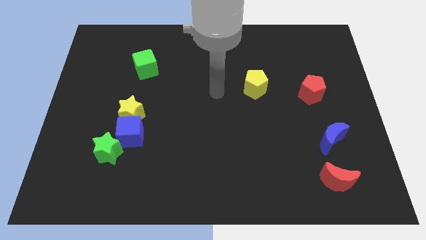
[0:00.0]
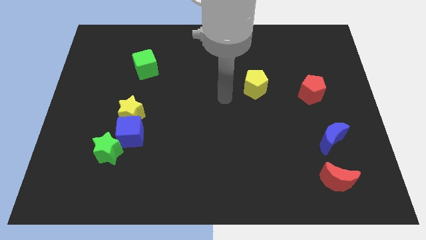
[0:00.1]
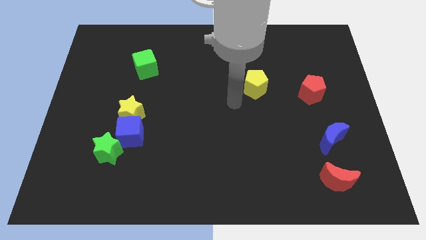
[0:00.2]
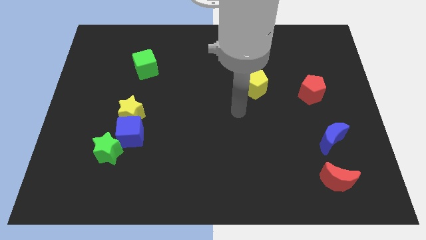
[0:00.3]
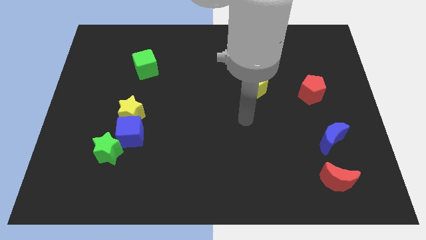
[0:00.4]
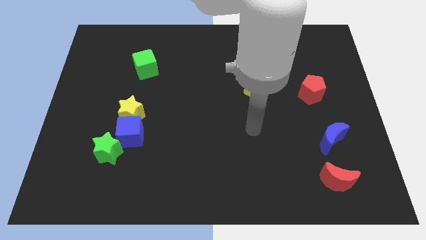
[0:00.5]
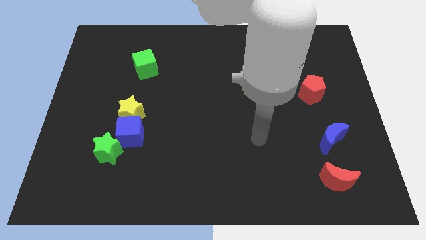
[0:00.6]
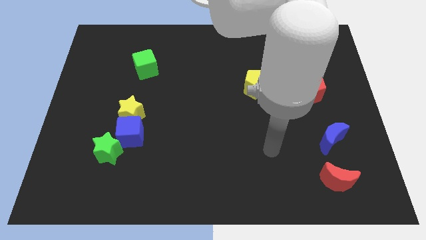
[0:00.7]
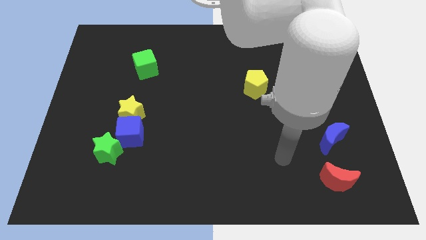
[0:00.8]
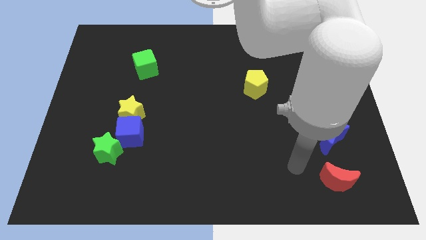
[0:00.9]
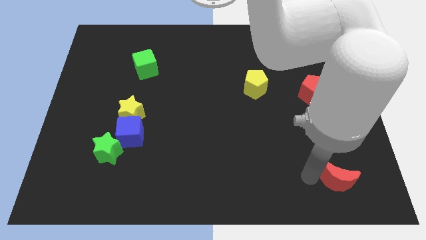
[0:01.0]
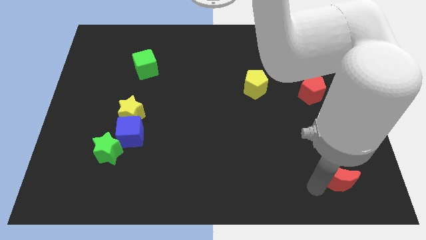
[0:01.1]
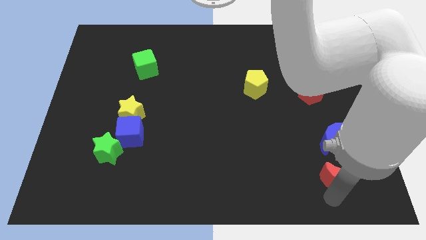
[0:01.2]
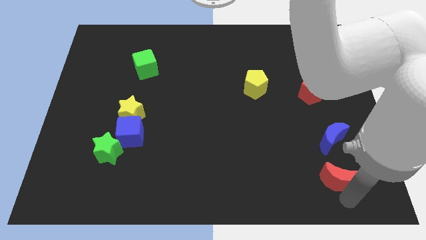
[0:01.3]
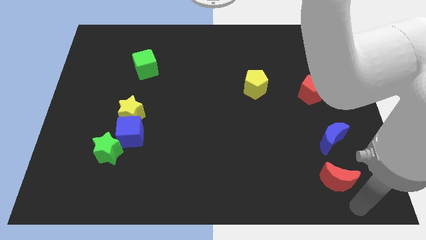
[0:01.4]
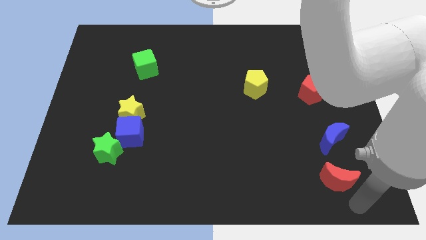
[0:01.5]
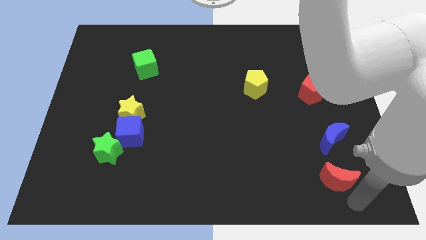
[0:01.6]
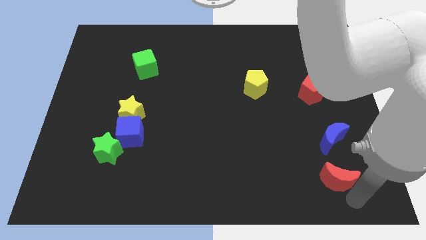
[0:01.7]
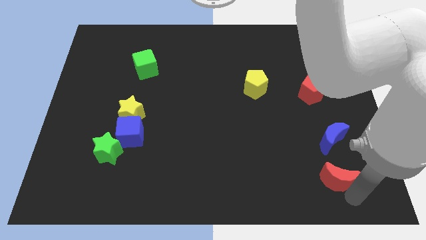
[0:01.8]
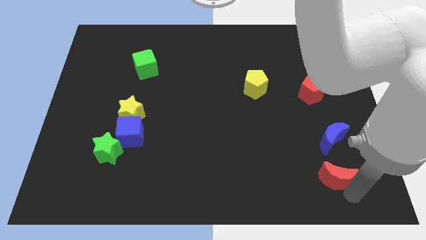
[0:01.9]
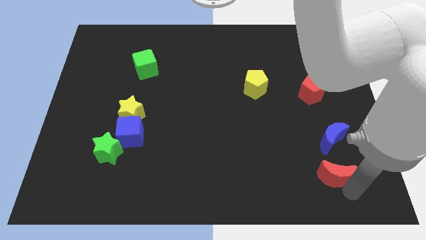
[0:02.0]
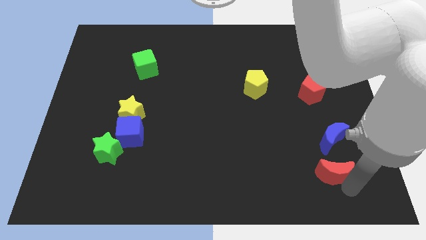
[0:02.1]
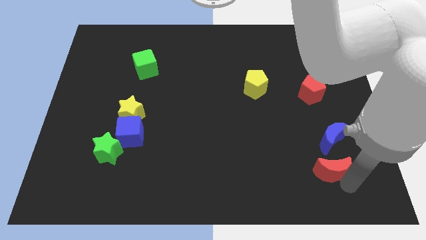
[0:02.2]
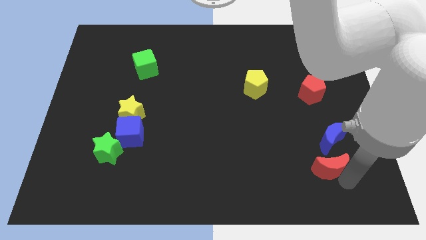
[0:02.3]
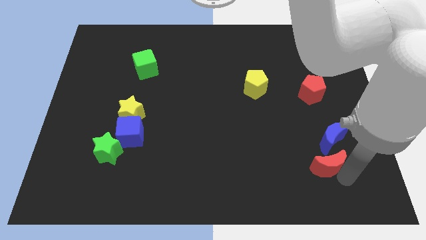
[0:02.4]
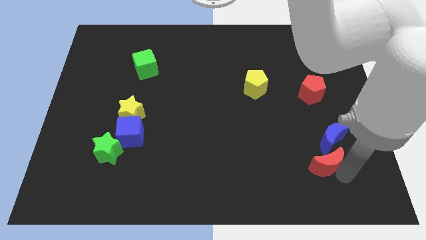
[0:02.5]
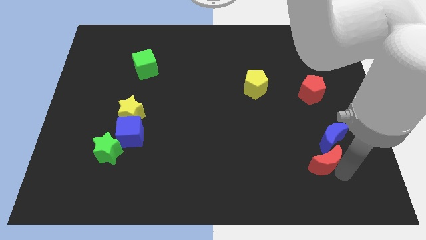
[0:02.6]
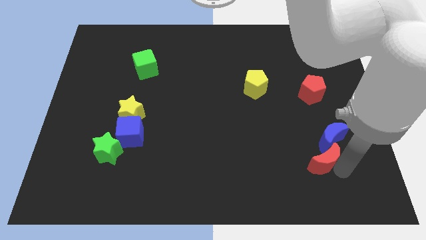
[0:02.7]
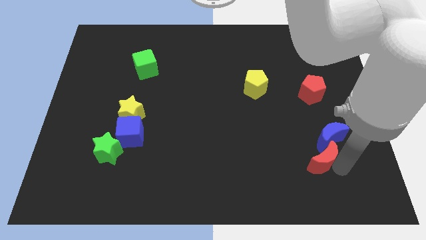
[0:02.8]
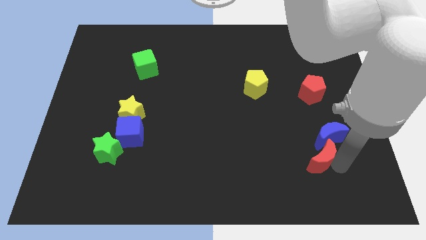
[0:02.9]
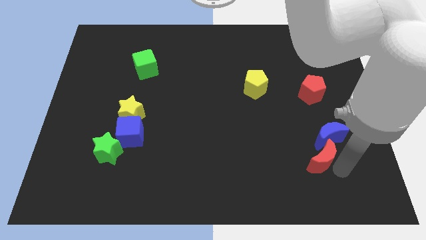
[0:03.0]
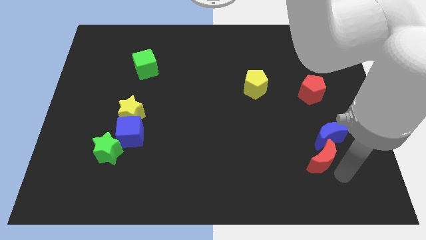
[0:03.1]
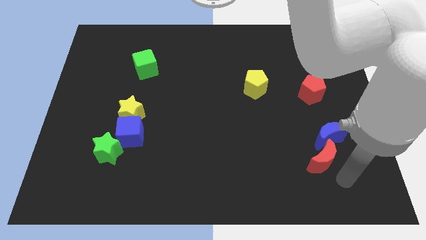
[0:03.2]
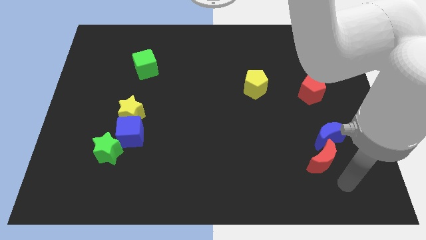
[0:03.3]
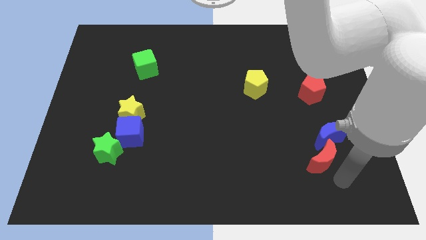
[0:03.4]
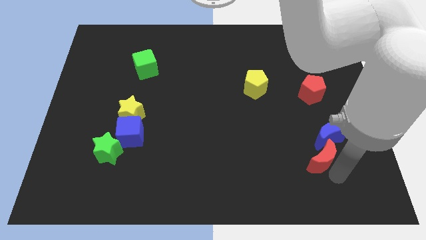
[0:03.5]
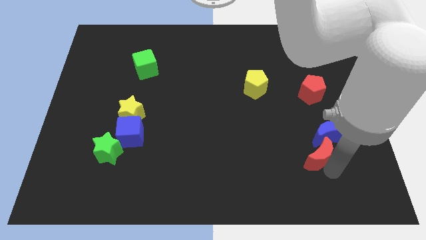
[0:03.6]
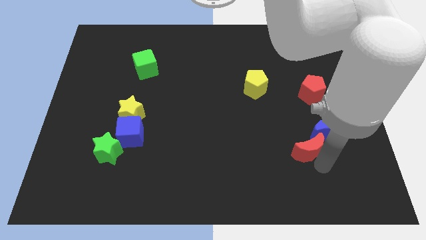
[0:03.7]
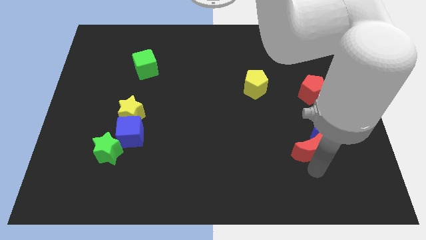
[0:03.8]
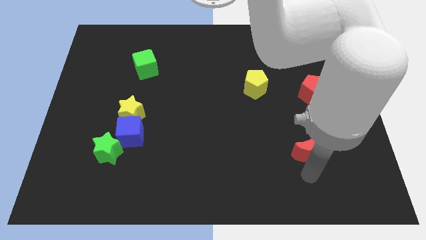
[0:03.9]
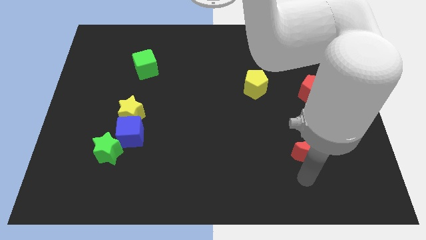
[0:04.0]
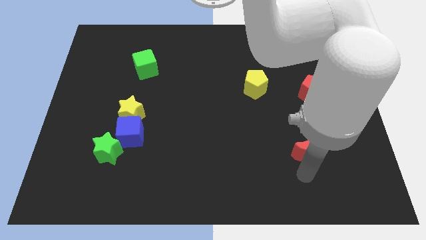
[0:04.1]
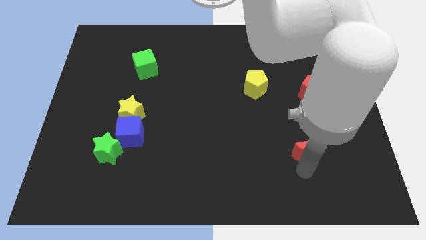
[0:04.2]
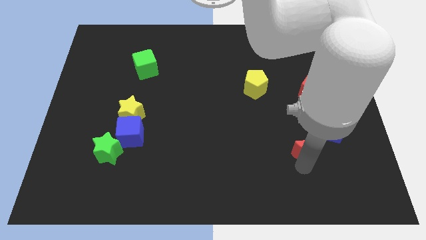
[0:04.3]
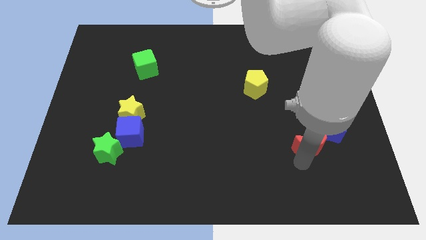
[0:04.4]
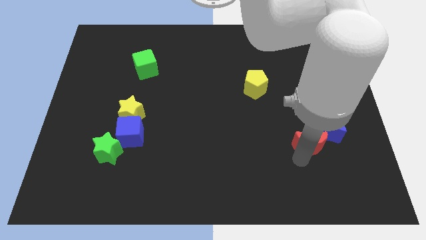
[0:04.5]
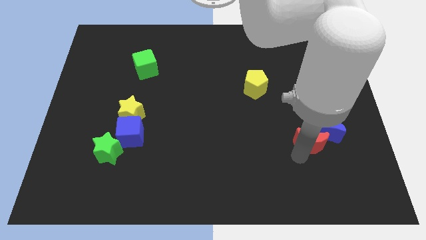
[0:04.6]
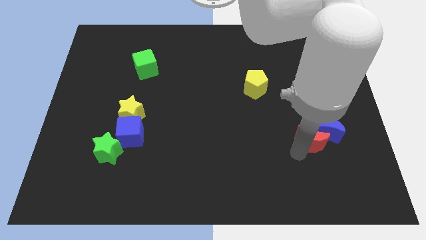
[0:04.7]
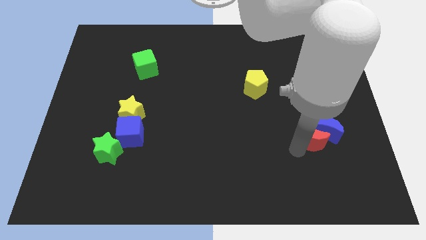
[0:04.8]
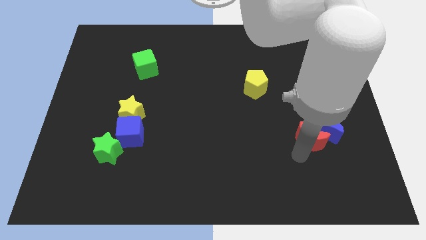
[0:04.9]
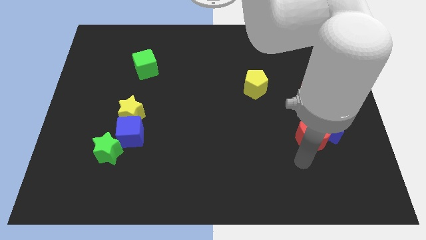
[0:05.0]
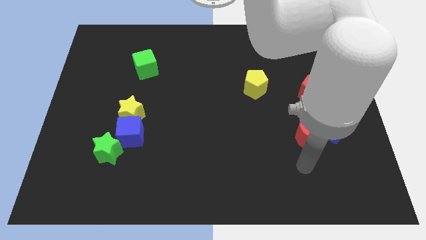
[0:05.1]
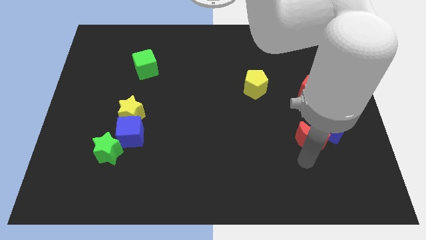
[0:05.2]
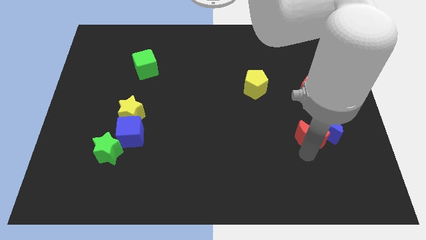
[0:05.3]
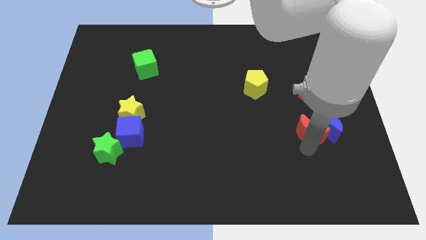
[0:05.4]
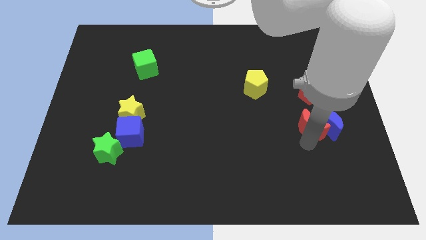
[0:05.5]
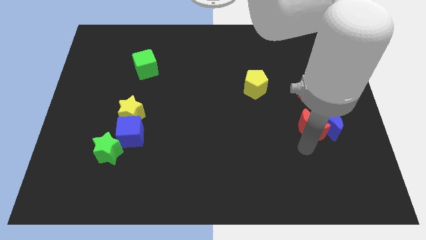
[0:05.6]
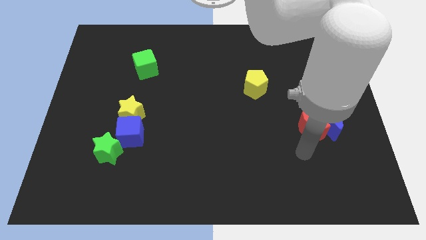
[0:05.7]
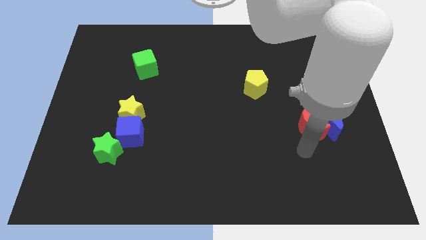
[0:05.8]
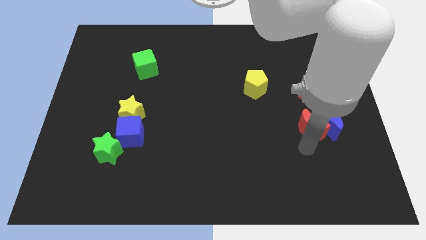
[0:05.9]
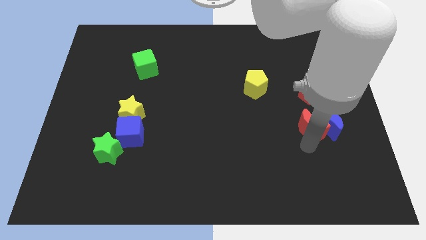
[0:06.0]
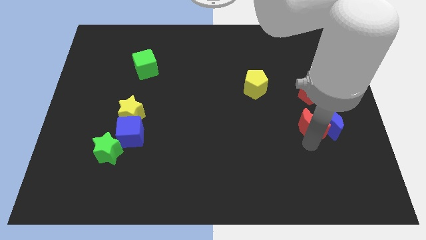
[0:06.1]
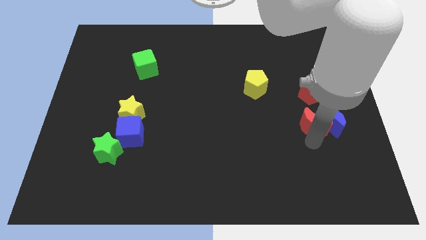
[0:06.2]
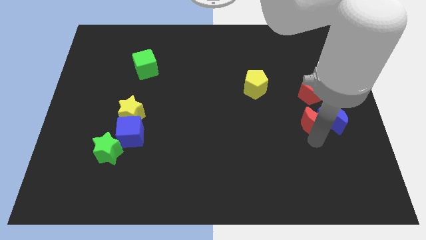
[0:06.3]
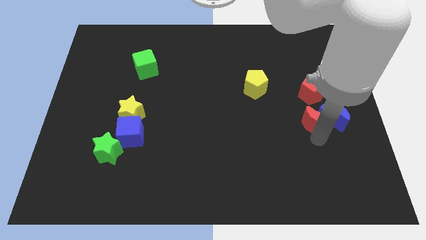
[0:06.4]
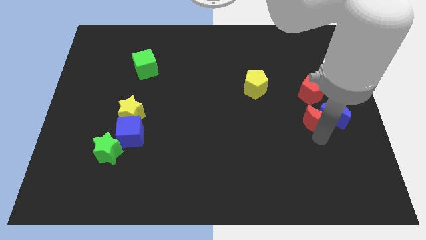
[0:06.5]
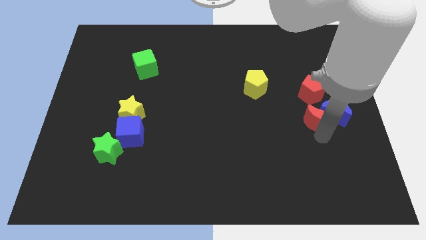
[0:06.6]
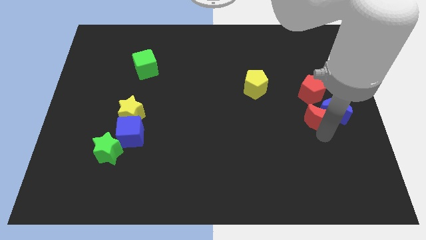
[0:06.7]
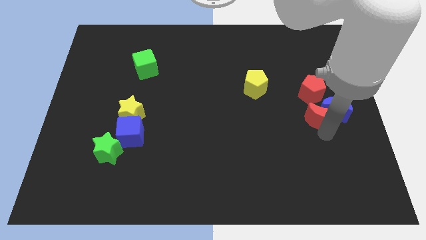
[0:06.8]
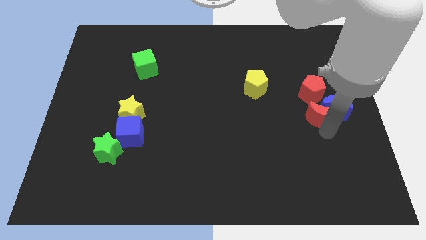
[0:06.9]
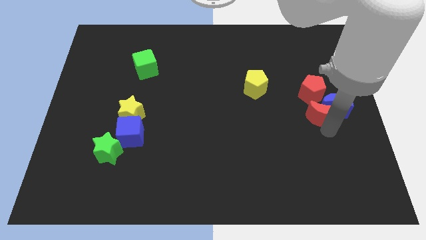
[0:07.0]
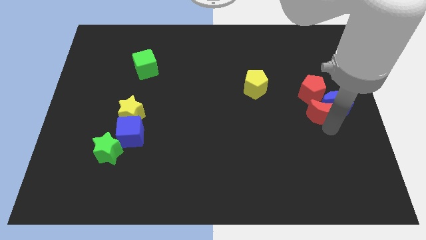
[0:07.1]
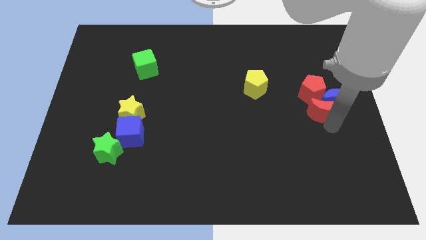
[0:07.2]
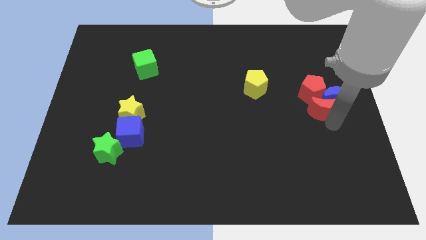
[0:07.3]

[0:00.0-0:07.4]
put the red moon to the red pentagon
